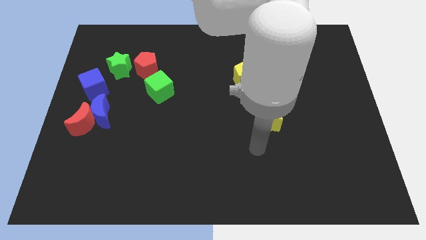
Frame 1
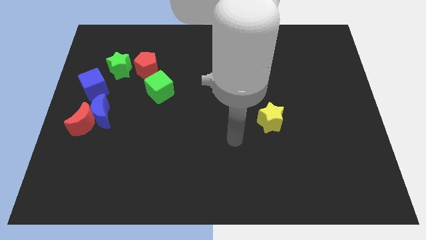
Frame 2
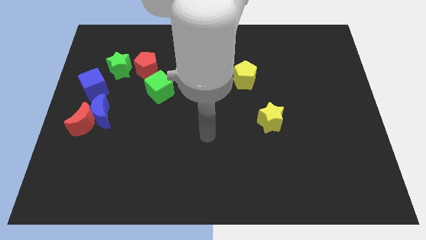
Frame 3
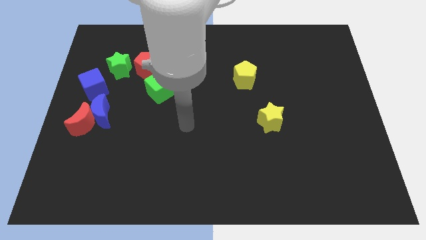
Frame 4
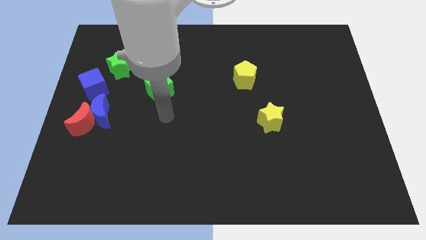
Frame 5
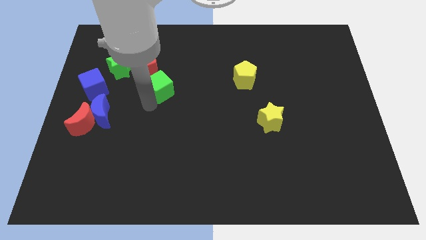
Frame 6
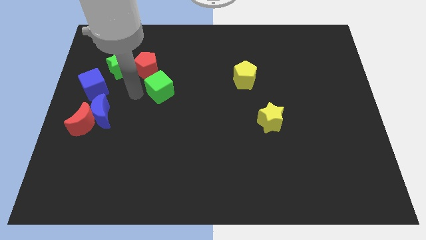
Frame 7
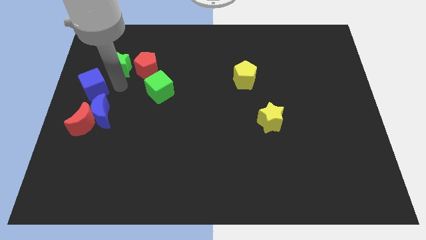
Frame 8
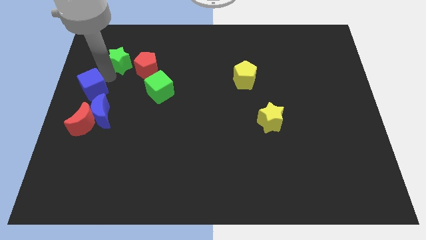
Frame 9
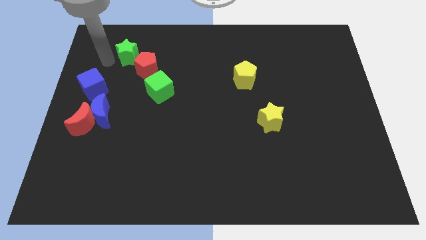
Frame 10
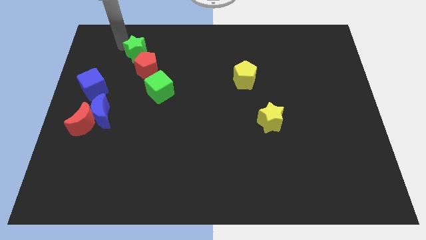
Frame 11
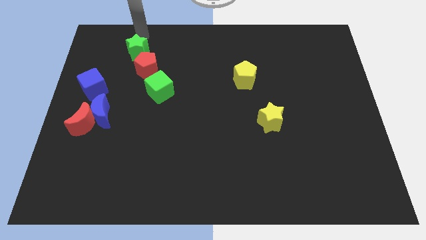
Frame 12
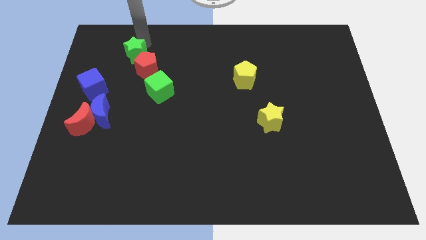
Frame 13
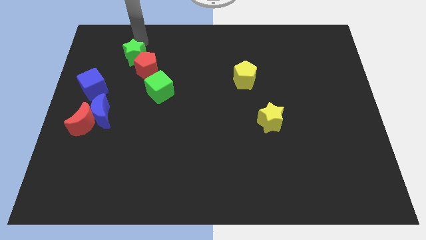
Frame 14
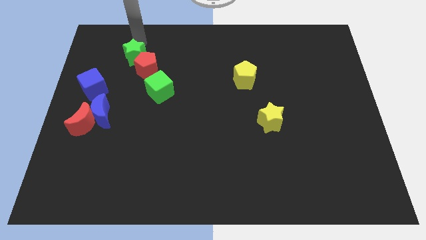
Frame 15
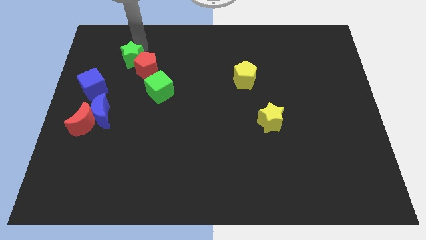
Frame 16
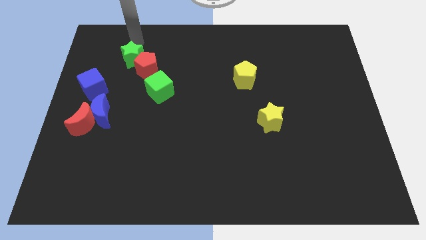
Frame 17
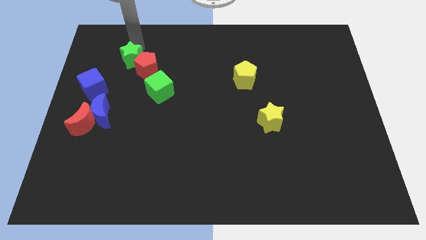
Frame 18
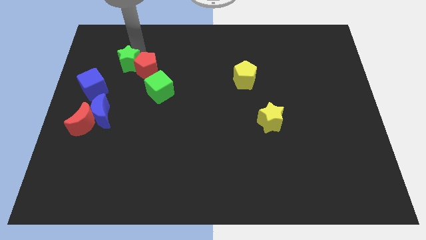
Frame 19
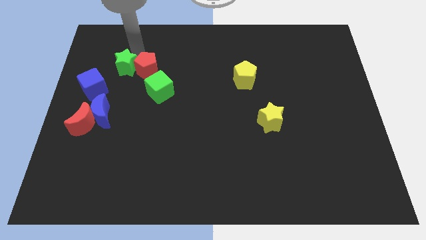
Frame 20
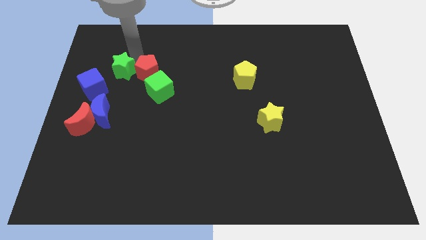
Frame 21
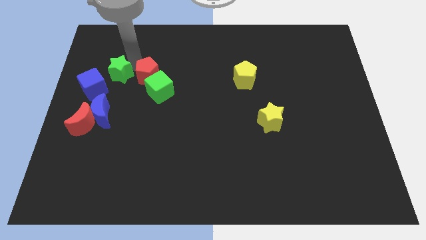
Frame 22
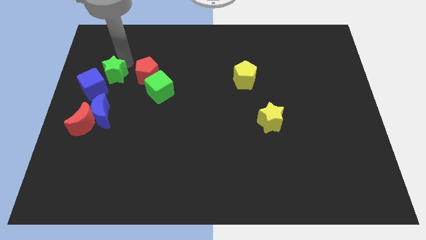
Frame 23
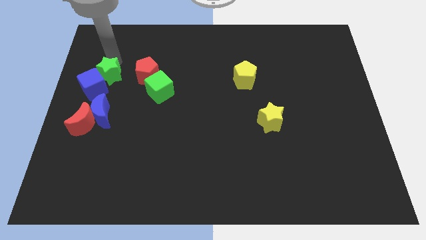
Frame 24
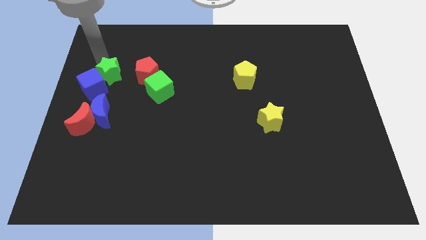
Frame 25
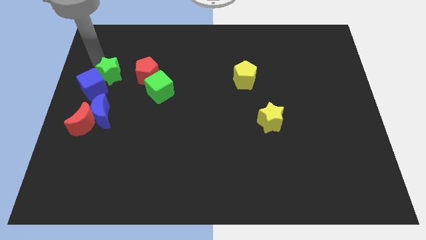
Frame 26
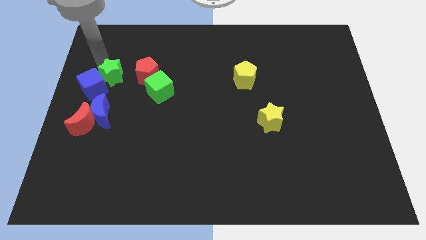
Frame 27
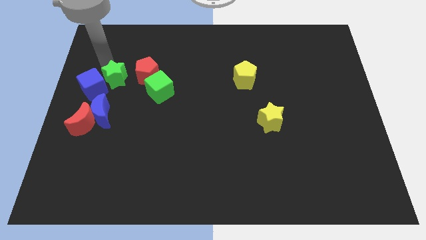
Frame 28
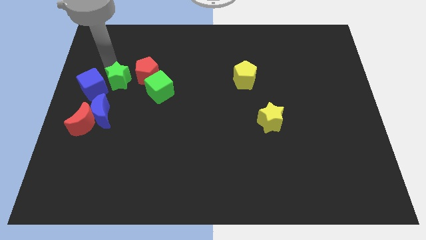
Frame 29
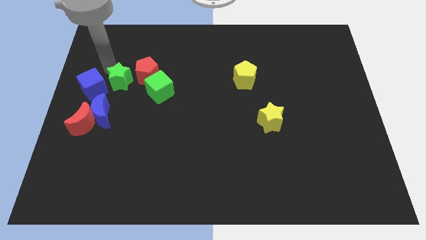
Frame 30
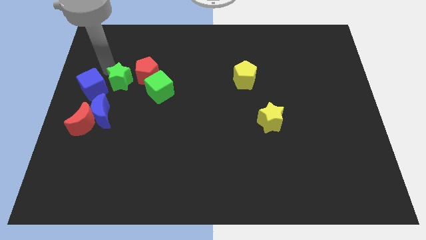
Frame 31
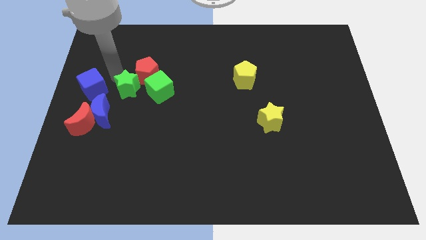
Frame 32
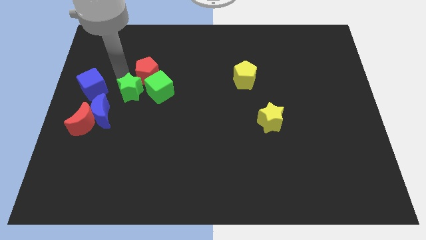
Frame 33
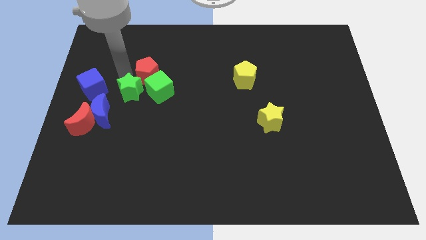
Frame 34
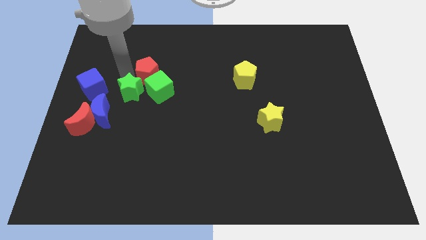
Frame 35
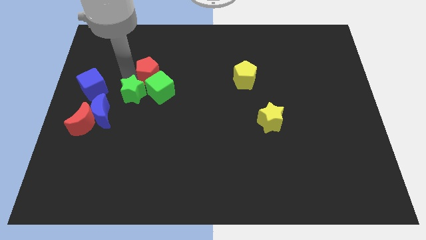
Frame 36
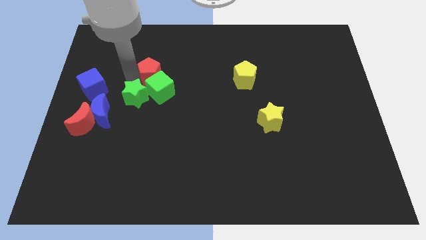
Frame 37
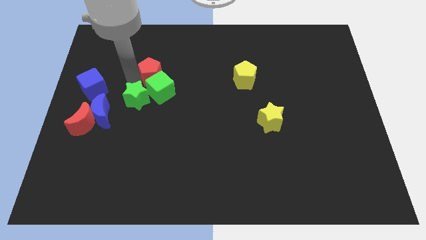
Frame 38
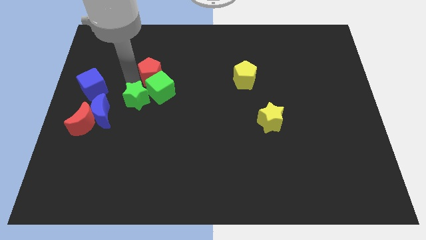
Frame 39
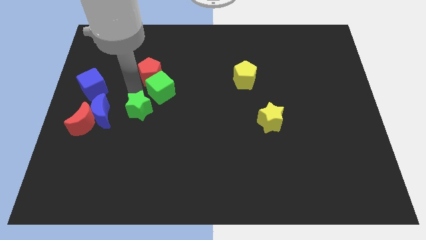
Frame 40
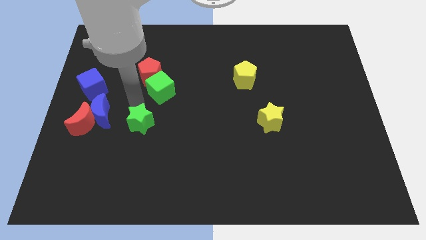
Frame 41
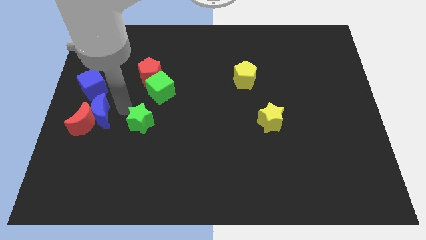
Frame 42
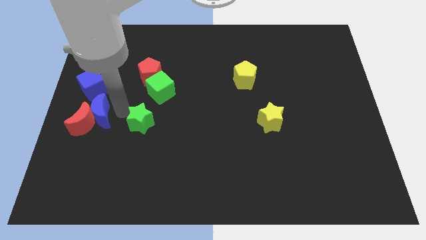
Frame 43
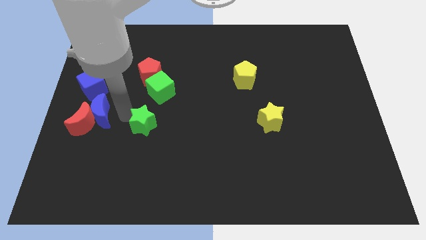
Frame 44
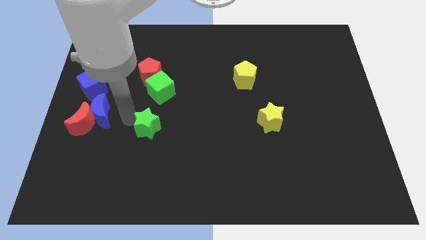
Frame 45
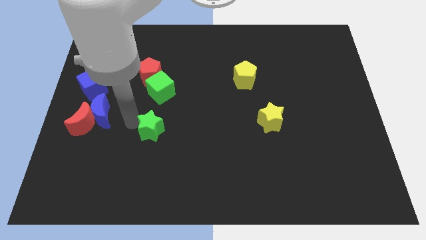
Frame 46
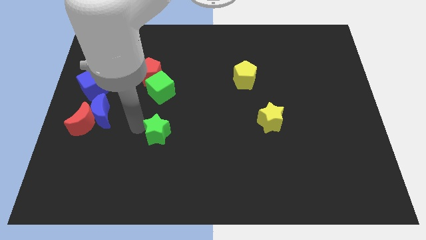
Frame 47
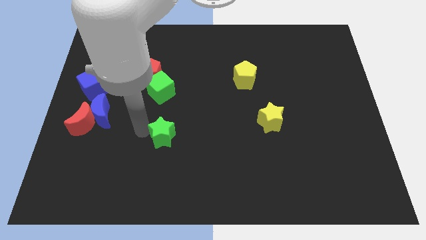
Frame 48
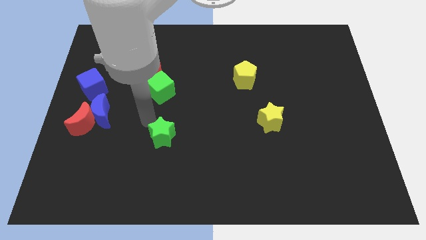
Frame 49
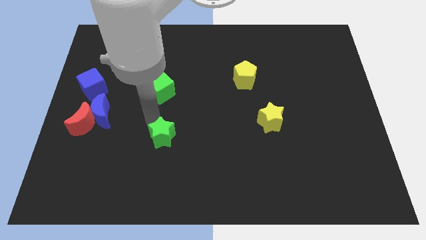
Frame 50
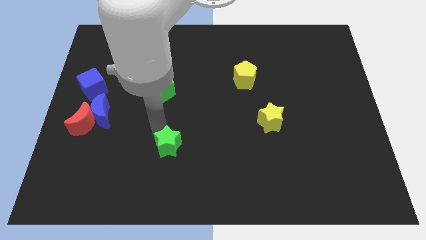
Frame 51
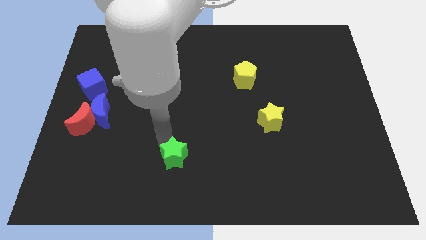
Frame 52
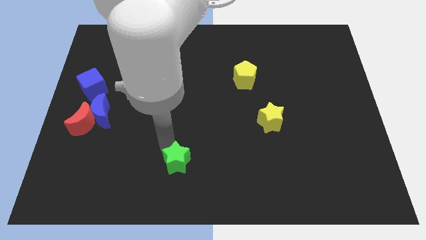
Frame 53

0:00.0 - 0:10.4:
put the green star to the bottom
